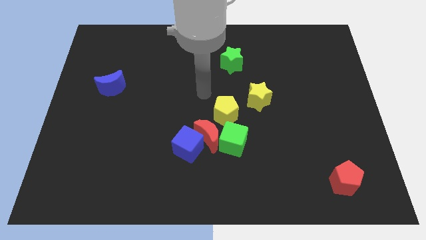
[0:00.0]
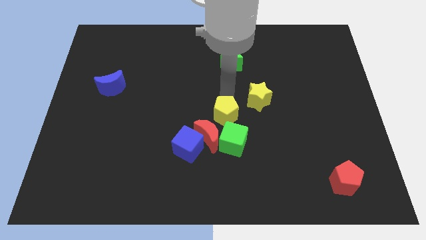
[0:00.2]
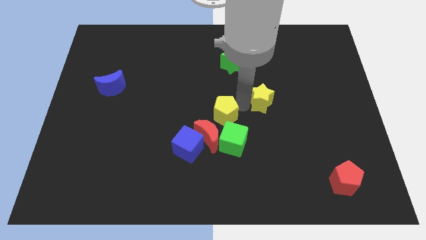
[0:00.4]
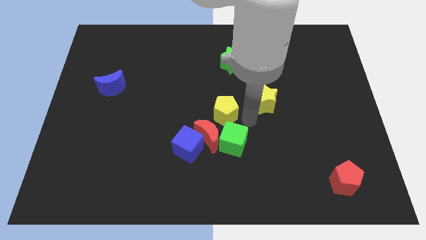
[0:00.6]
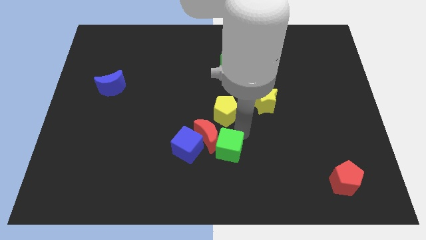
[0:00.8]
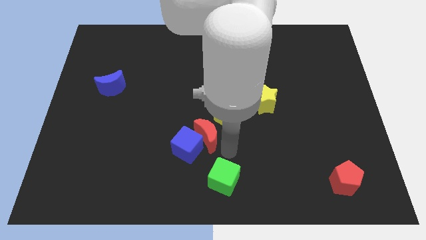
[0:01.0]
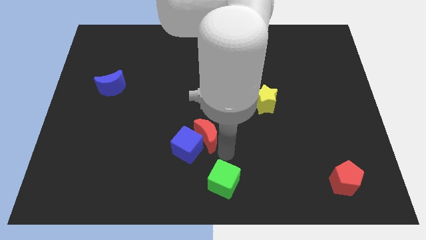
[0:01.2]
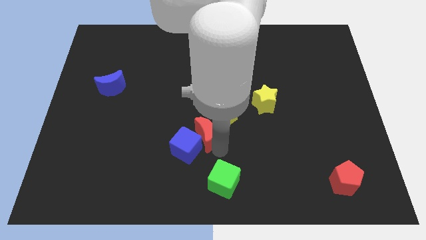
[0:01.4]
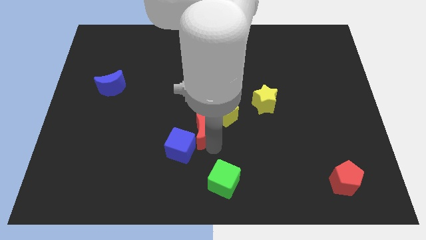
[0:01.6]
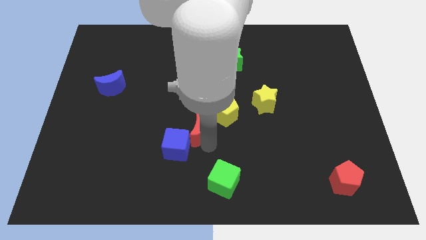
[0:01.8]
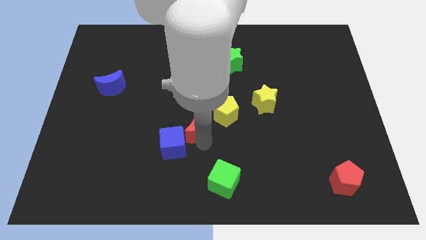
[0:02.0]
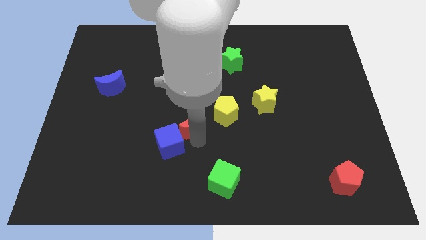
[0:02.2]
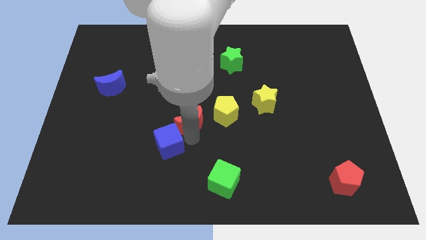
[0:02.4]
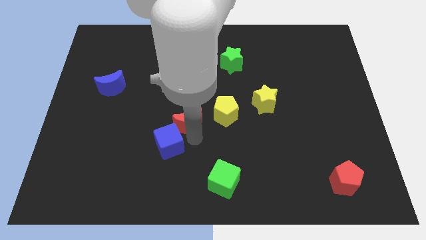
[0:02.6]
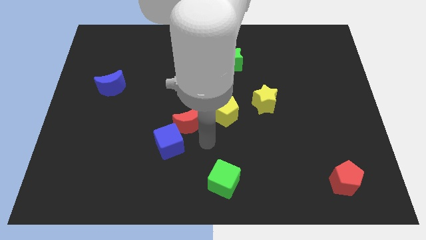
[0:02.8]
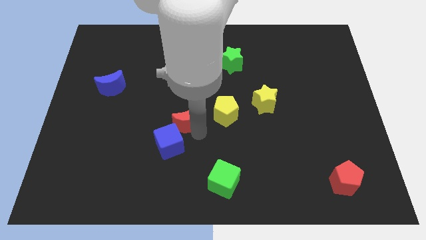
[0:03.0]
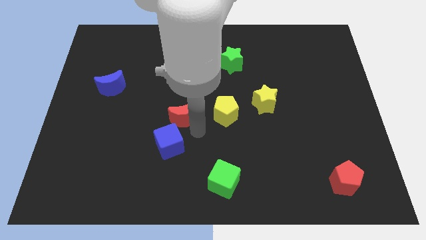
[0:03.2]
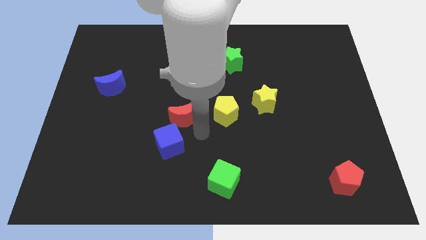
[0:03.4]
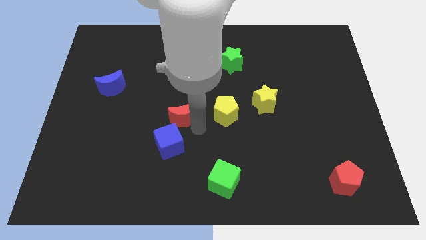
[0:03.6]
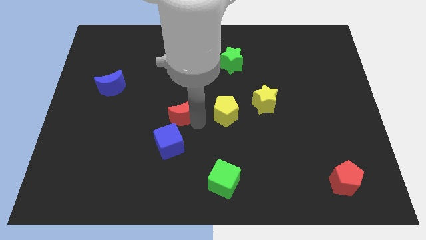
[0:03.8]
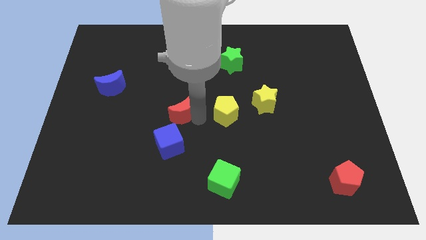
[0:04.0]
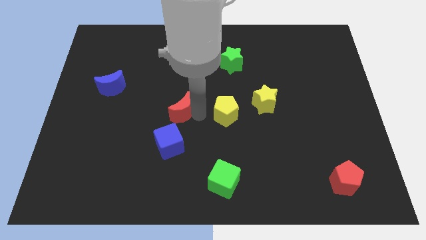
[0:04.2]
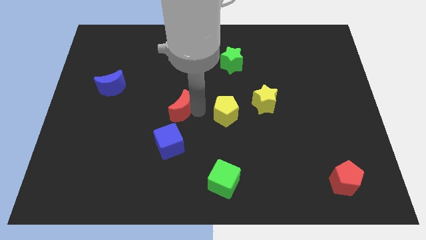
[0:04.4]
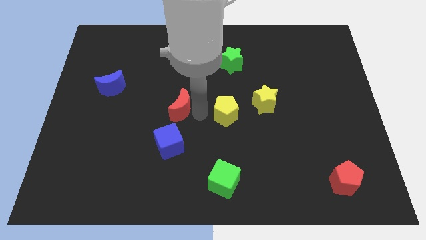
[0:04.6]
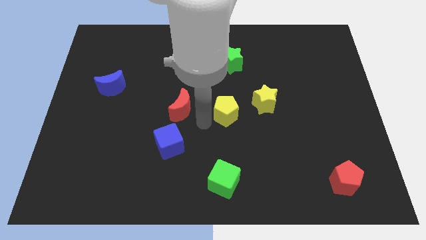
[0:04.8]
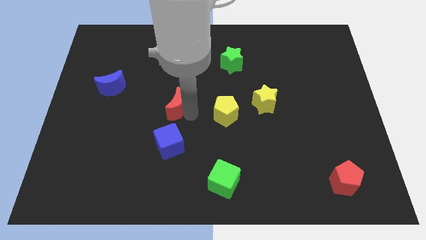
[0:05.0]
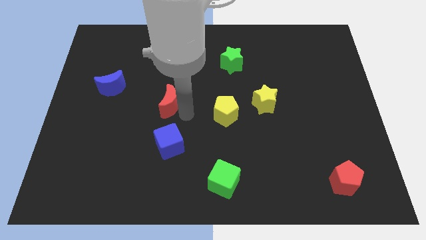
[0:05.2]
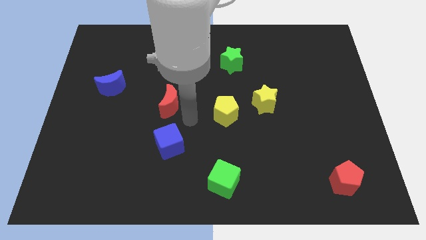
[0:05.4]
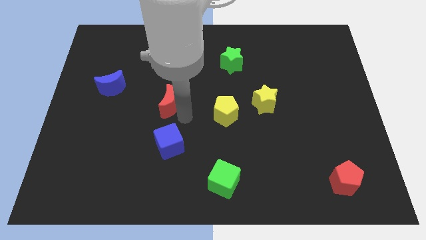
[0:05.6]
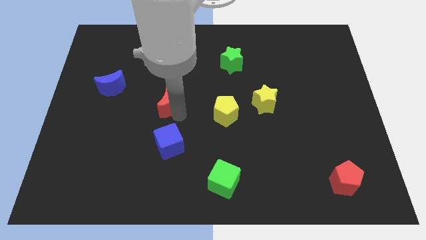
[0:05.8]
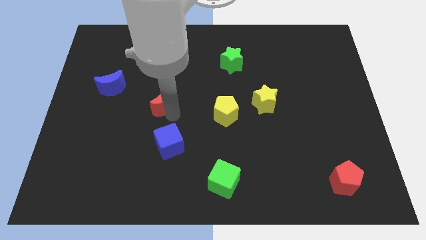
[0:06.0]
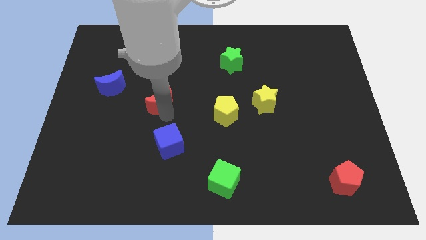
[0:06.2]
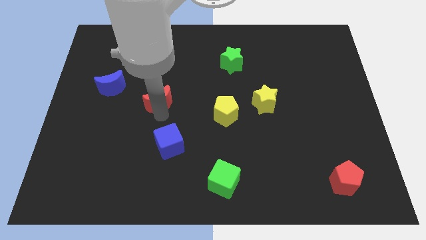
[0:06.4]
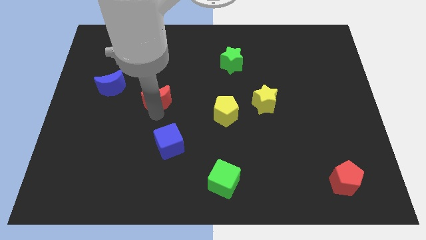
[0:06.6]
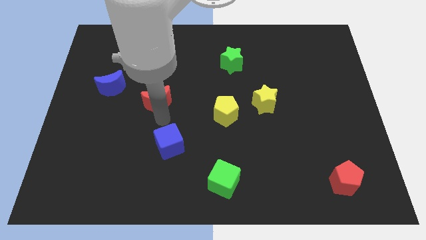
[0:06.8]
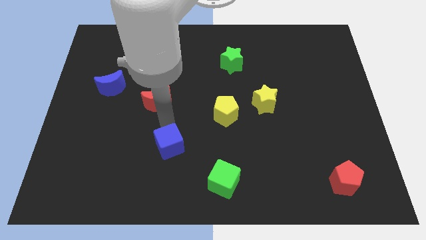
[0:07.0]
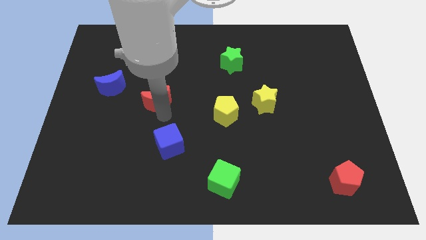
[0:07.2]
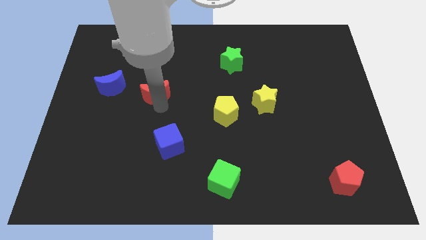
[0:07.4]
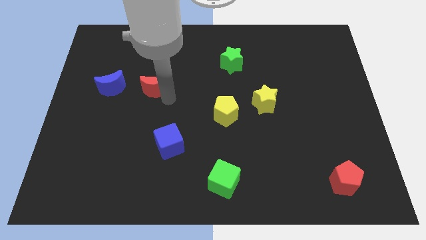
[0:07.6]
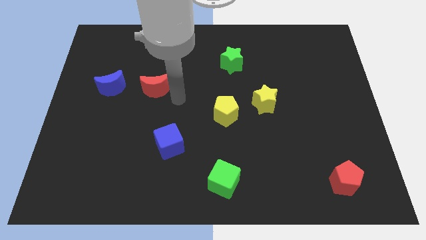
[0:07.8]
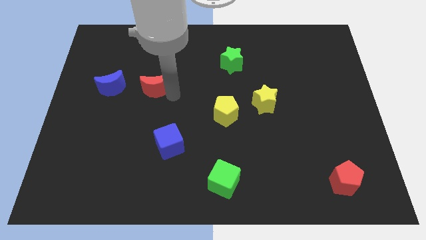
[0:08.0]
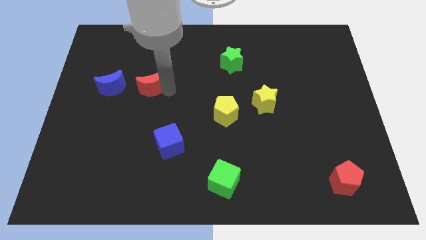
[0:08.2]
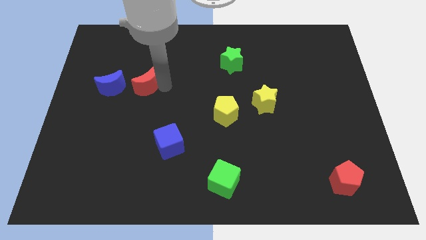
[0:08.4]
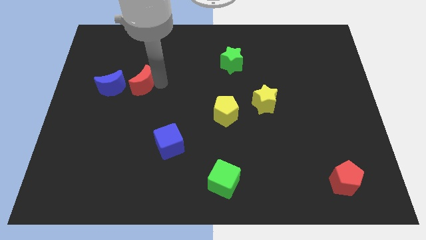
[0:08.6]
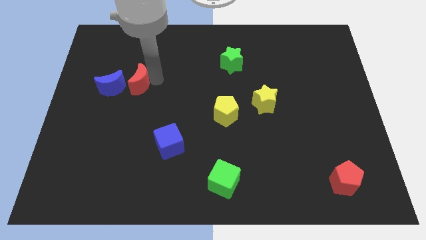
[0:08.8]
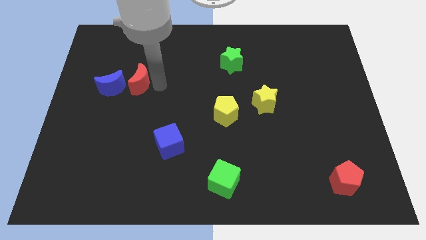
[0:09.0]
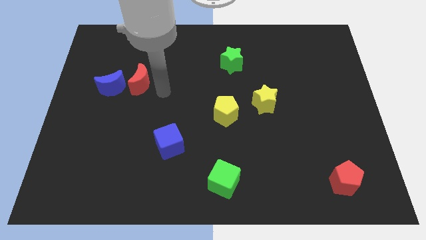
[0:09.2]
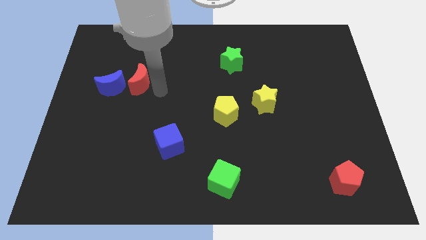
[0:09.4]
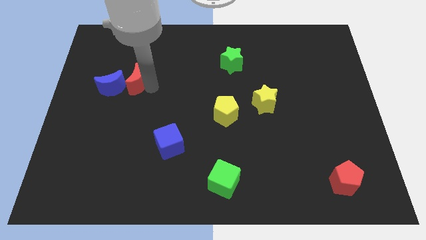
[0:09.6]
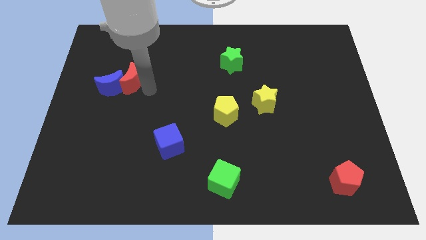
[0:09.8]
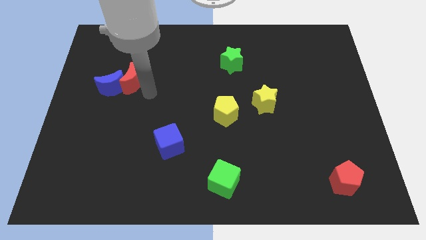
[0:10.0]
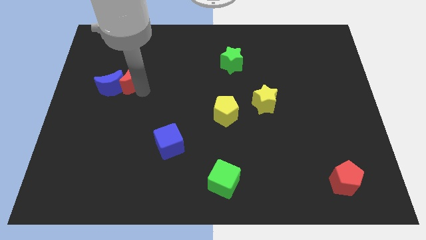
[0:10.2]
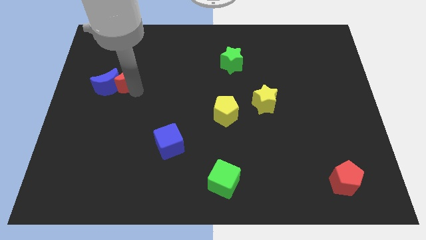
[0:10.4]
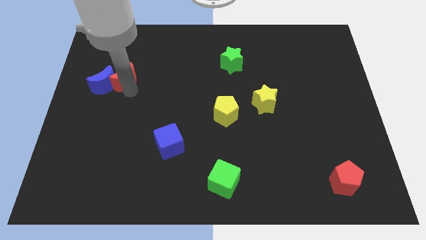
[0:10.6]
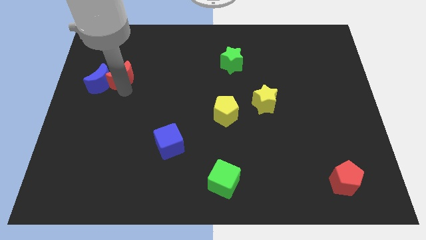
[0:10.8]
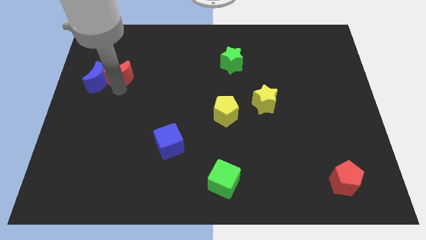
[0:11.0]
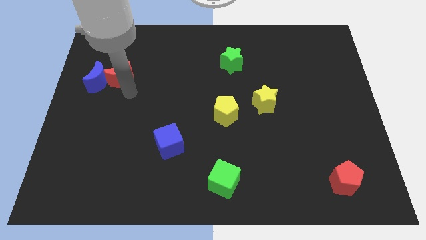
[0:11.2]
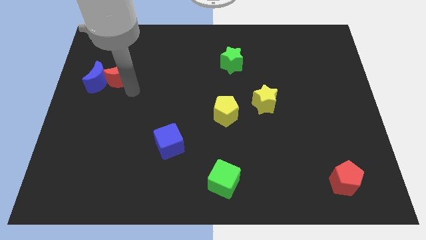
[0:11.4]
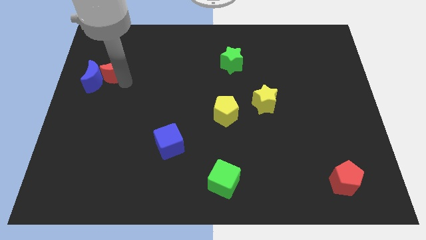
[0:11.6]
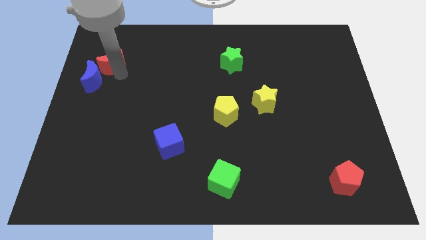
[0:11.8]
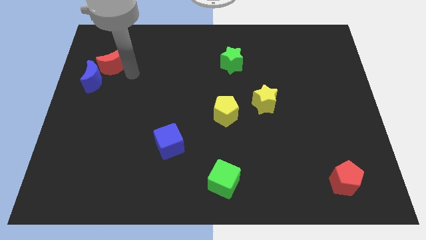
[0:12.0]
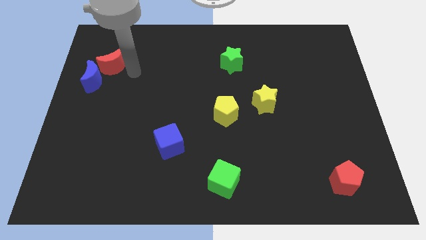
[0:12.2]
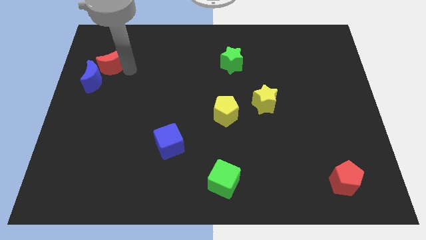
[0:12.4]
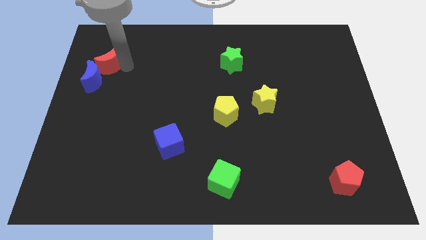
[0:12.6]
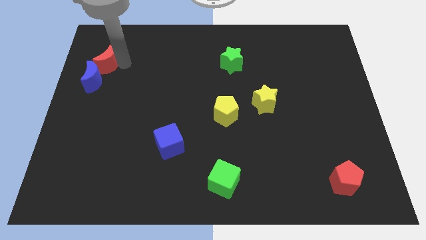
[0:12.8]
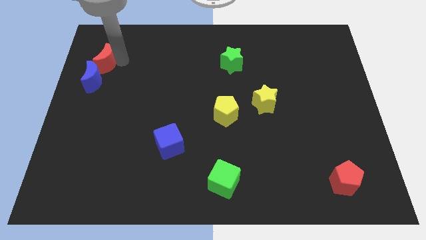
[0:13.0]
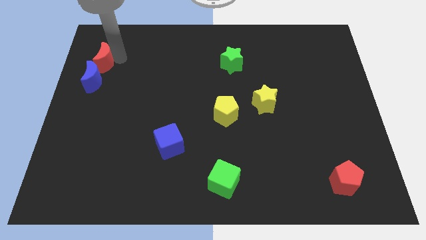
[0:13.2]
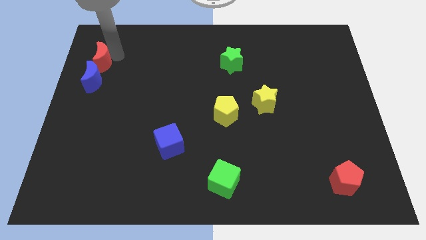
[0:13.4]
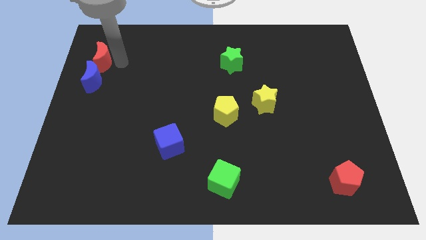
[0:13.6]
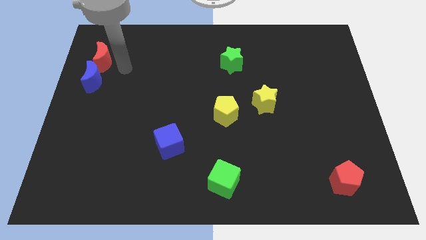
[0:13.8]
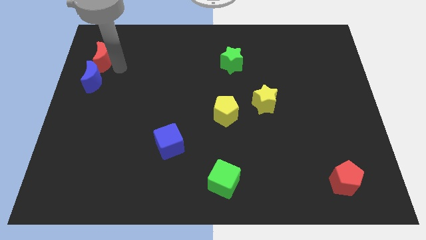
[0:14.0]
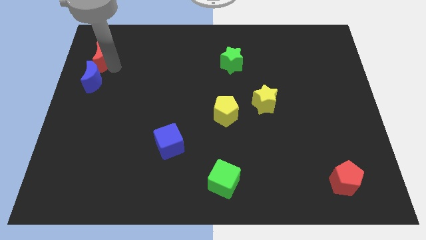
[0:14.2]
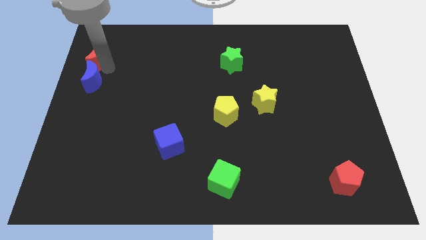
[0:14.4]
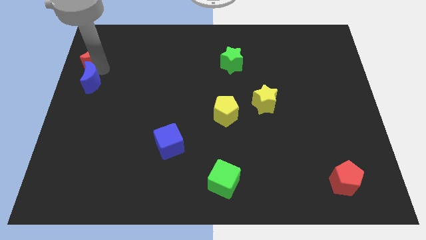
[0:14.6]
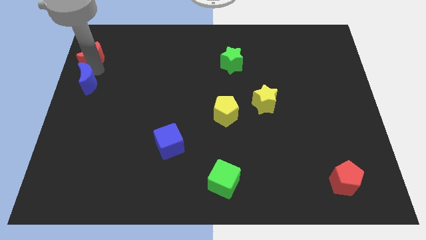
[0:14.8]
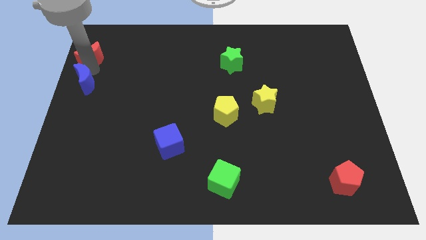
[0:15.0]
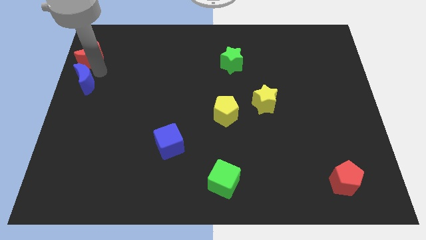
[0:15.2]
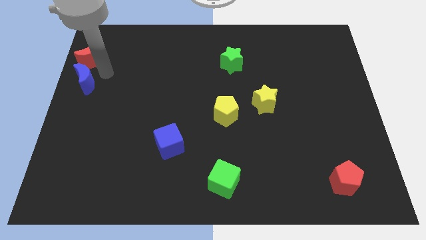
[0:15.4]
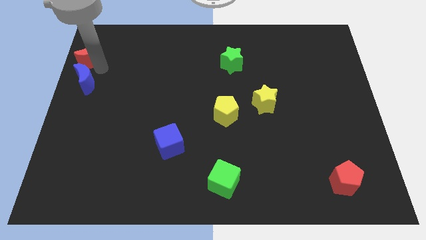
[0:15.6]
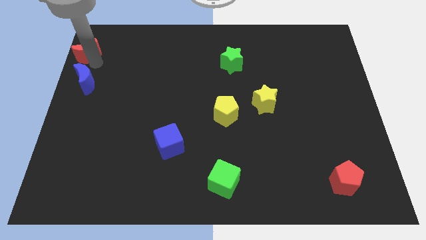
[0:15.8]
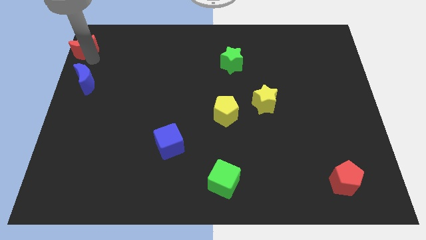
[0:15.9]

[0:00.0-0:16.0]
move the red moon to the upper left corner
